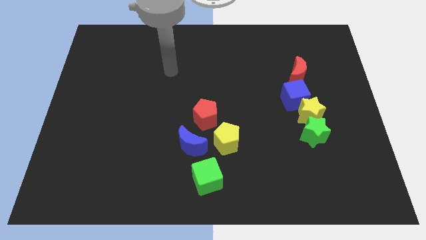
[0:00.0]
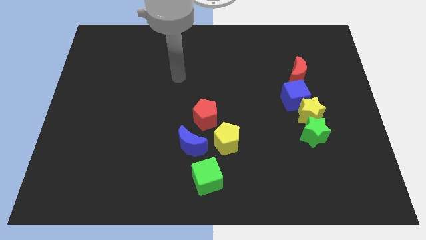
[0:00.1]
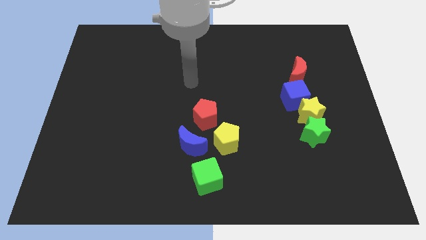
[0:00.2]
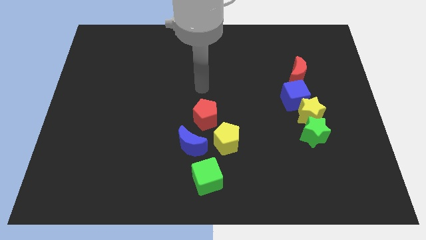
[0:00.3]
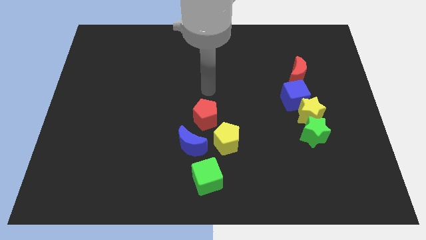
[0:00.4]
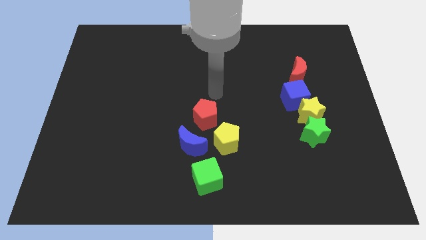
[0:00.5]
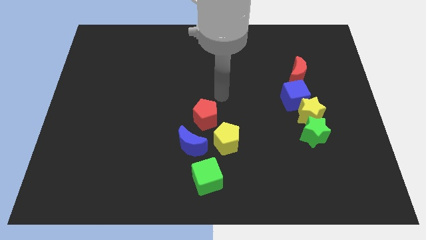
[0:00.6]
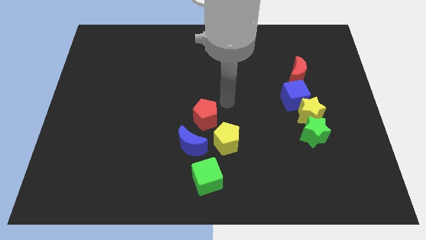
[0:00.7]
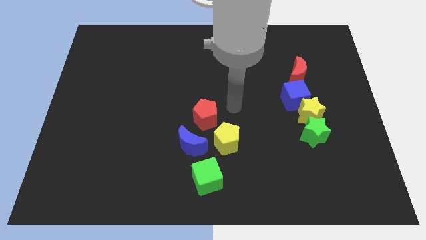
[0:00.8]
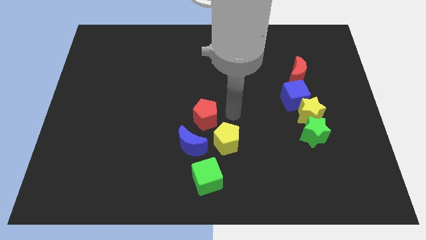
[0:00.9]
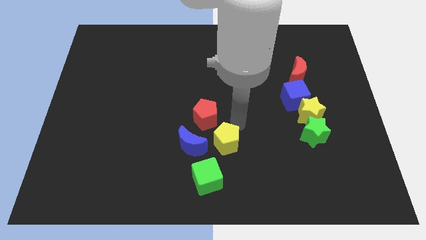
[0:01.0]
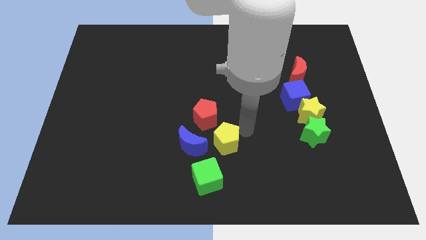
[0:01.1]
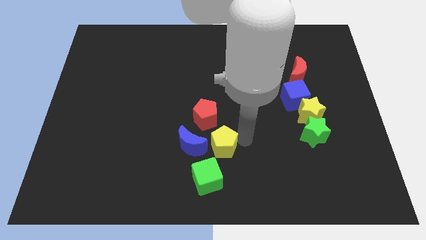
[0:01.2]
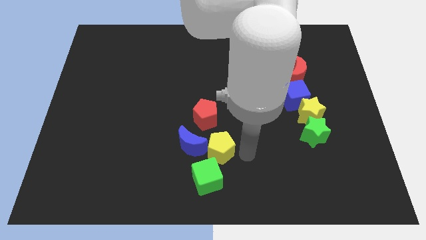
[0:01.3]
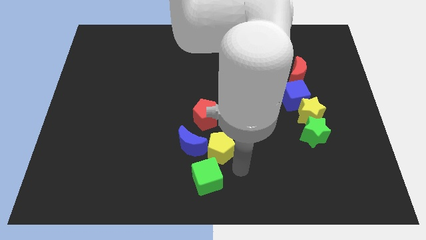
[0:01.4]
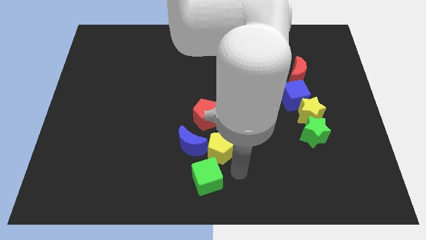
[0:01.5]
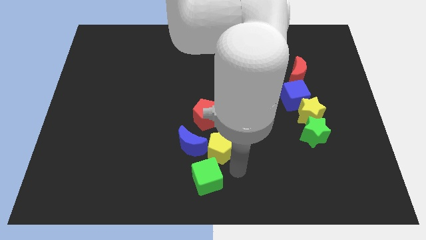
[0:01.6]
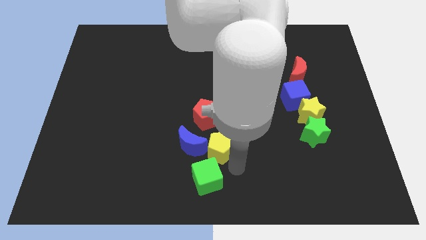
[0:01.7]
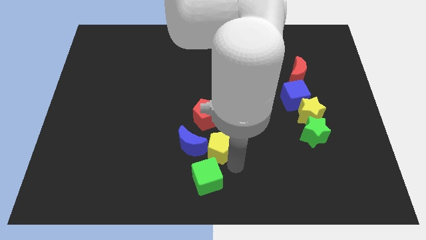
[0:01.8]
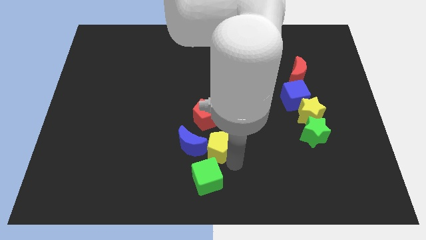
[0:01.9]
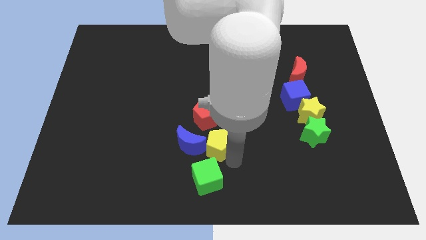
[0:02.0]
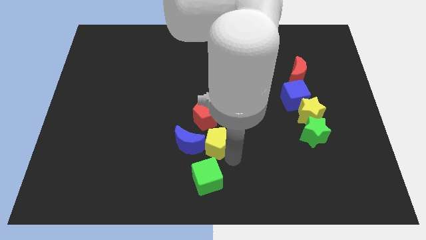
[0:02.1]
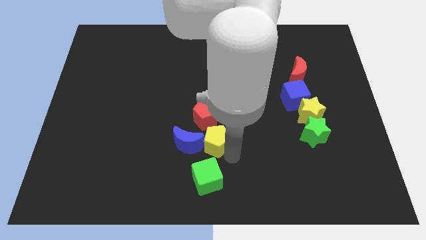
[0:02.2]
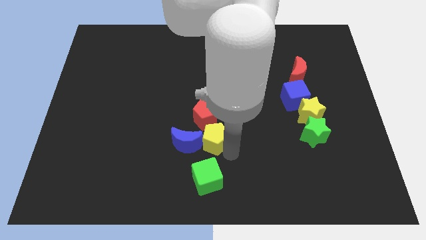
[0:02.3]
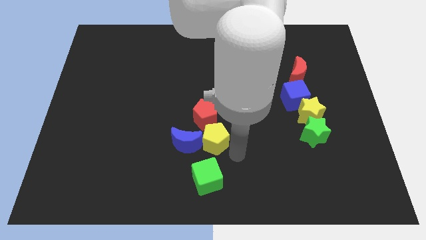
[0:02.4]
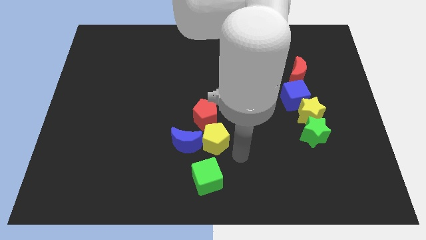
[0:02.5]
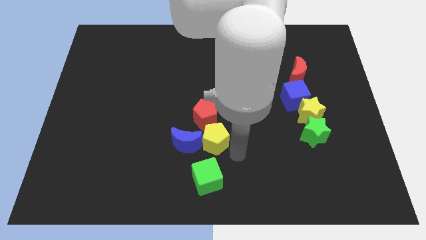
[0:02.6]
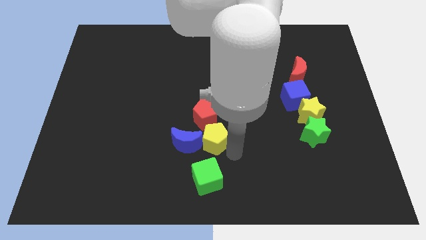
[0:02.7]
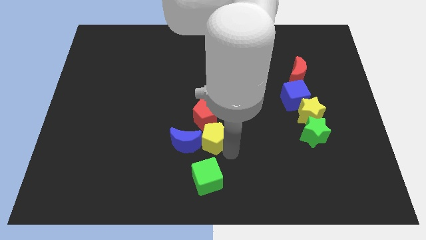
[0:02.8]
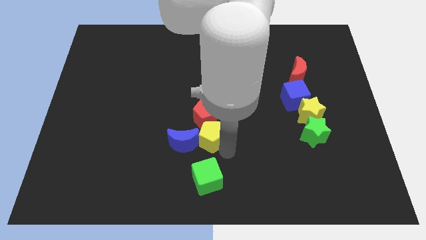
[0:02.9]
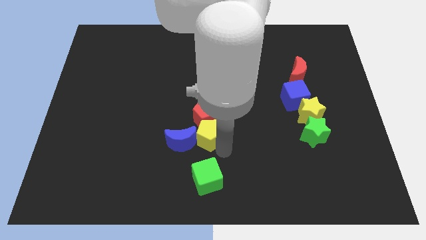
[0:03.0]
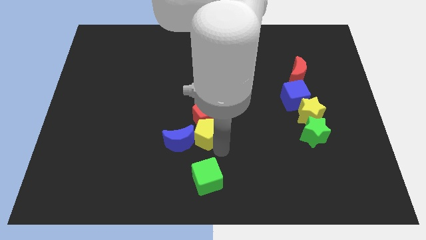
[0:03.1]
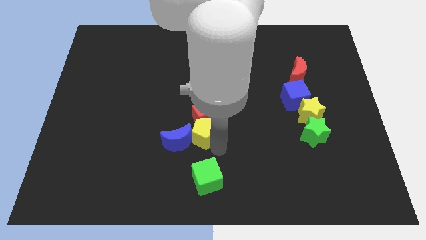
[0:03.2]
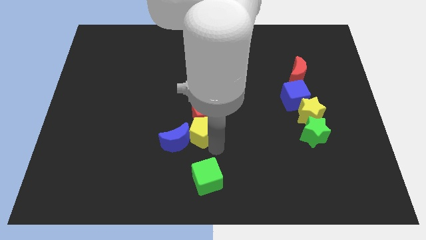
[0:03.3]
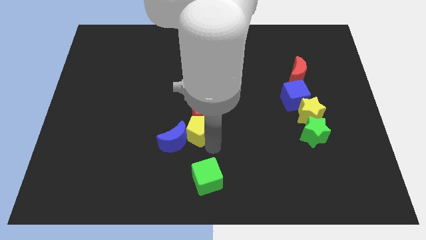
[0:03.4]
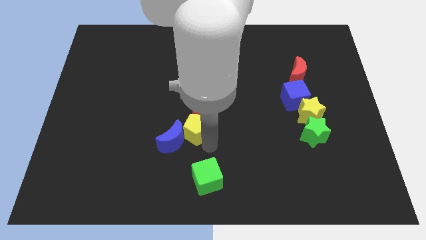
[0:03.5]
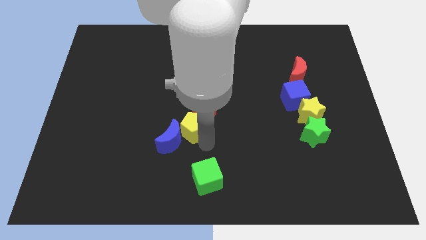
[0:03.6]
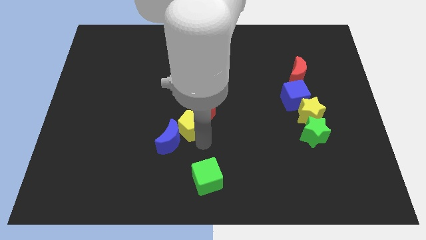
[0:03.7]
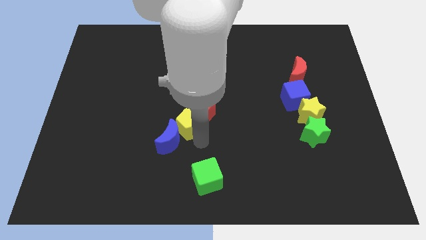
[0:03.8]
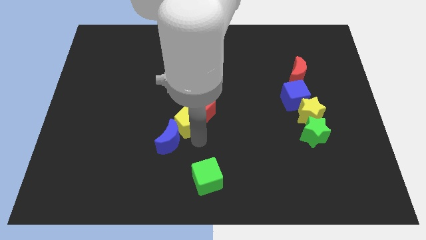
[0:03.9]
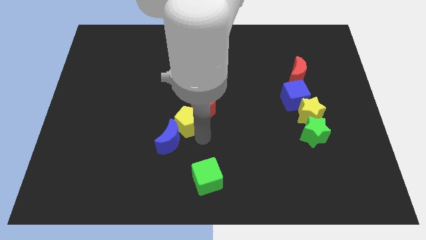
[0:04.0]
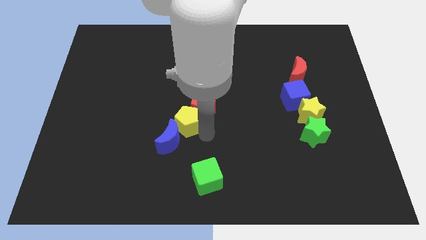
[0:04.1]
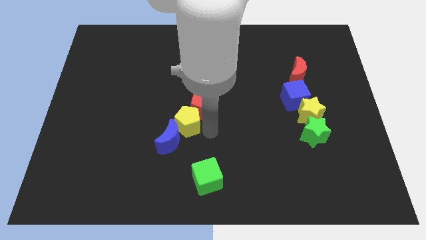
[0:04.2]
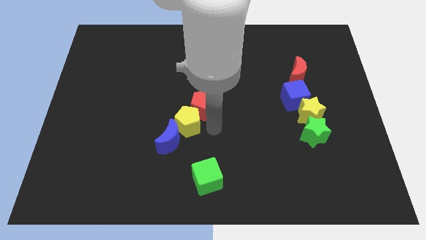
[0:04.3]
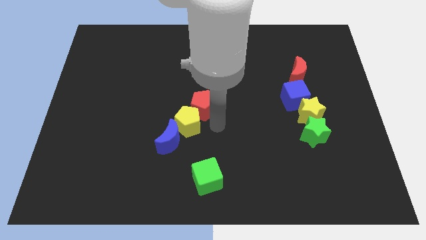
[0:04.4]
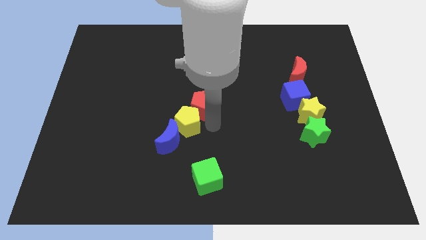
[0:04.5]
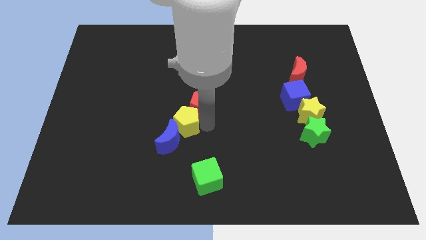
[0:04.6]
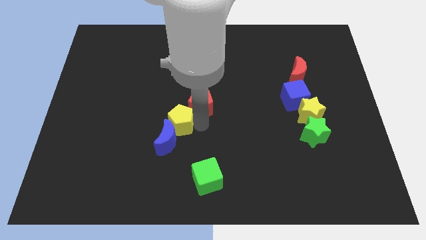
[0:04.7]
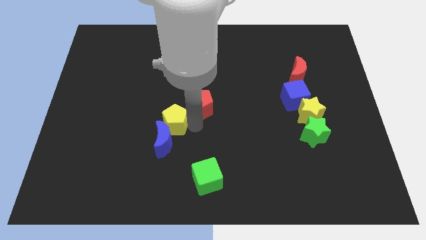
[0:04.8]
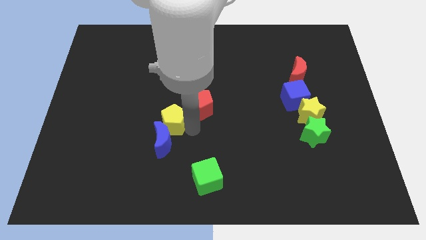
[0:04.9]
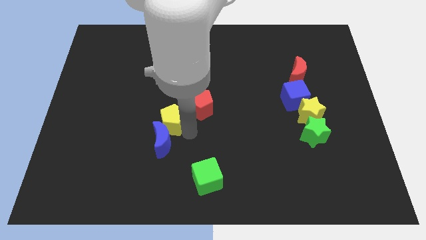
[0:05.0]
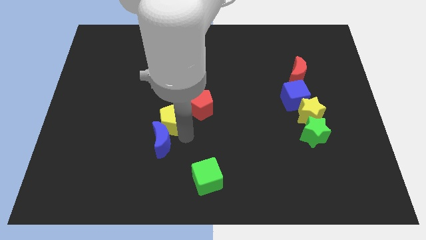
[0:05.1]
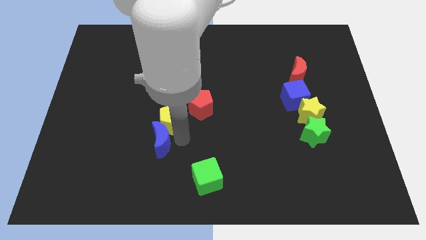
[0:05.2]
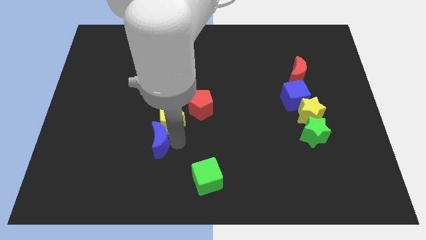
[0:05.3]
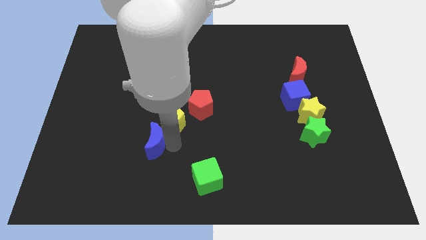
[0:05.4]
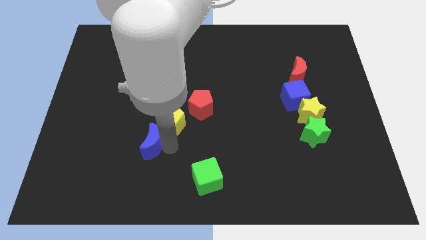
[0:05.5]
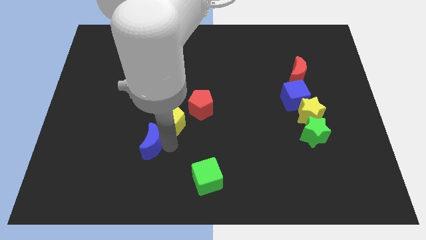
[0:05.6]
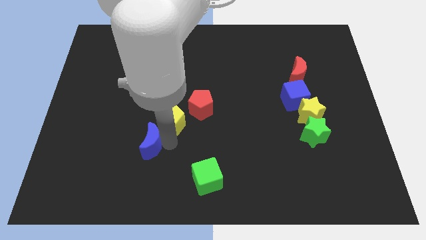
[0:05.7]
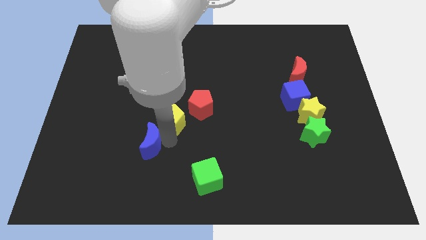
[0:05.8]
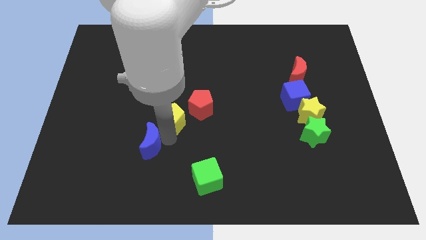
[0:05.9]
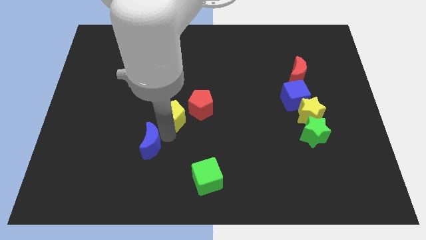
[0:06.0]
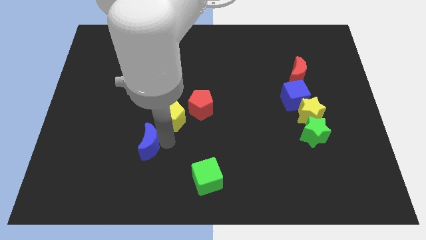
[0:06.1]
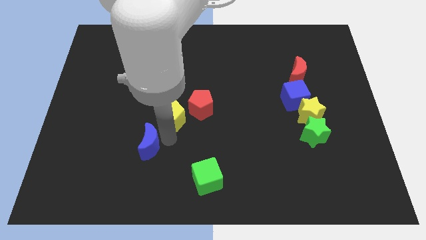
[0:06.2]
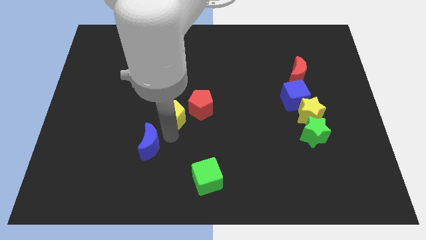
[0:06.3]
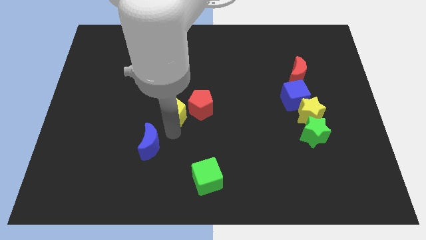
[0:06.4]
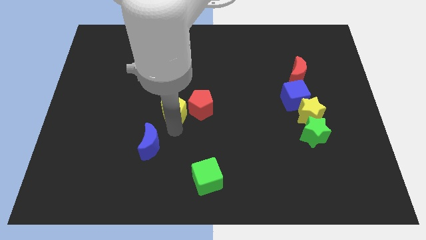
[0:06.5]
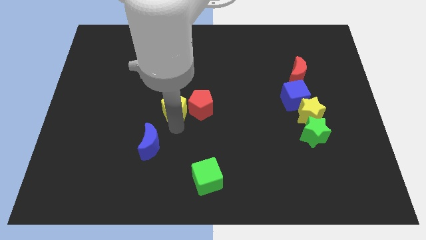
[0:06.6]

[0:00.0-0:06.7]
push the yellow pentagon to the top left of the red pentagon
